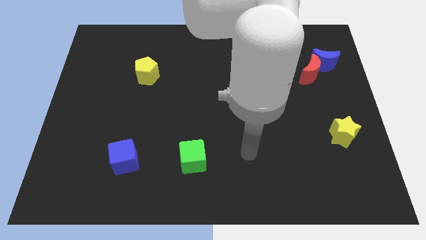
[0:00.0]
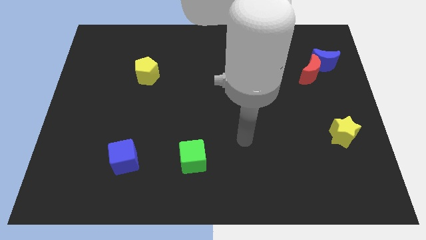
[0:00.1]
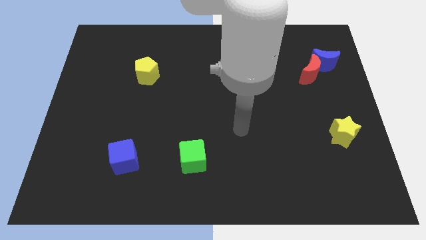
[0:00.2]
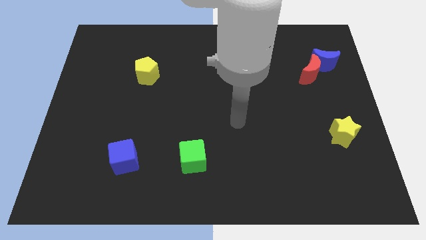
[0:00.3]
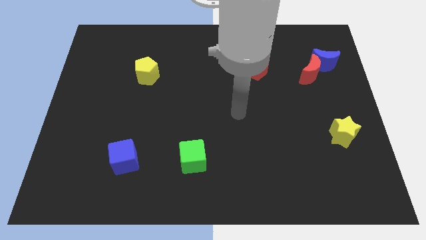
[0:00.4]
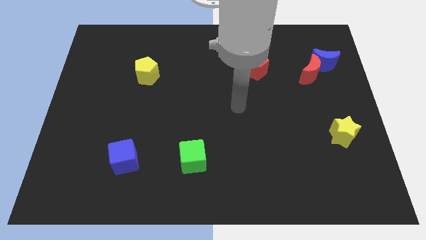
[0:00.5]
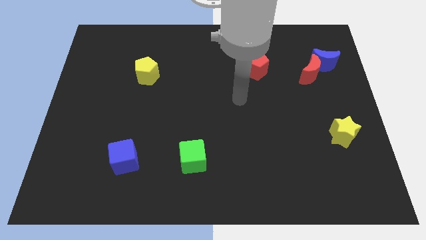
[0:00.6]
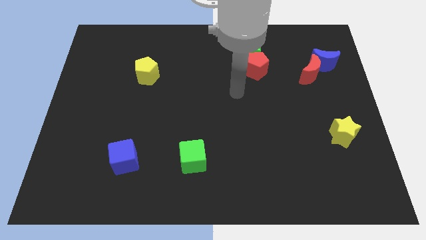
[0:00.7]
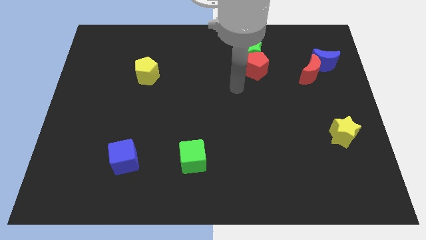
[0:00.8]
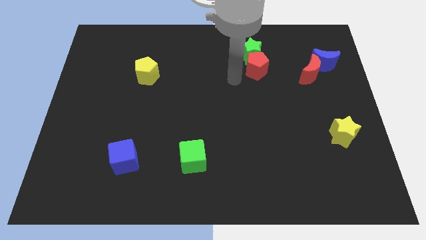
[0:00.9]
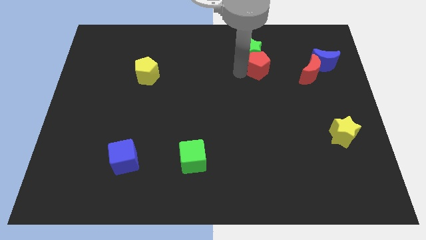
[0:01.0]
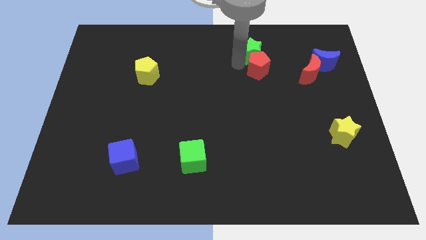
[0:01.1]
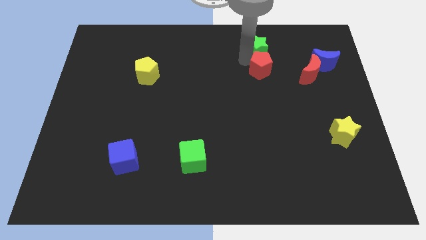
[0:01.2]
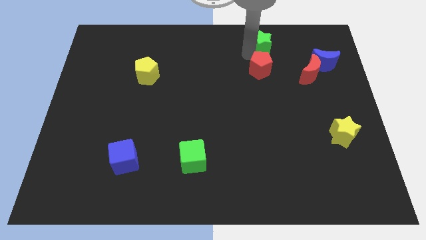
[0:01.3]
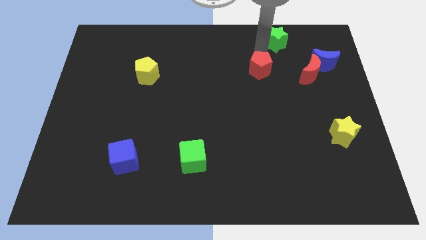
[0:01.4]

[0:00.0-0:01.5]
move the red pentagon away from the green star

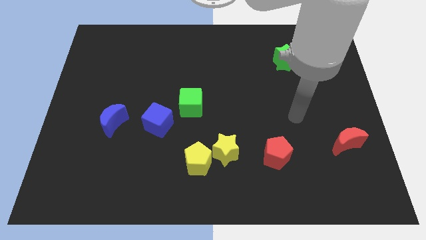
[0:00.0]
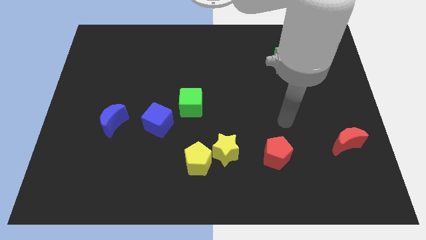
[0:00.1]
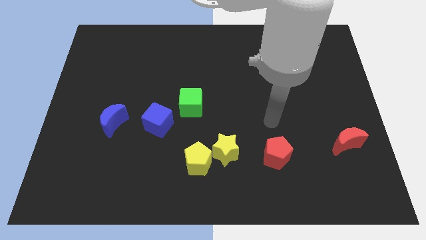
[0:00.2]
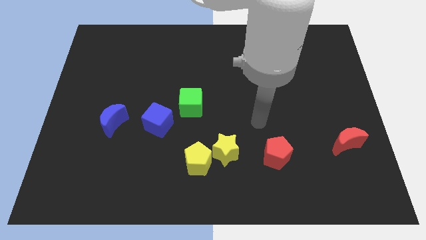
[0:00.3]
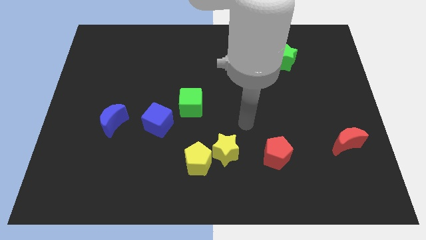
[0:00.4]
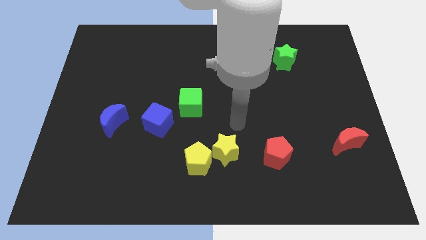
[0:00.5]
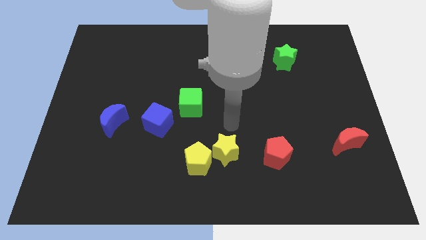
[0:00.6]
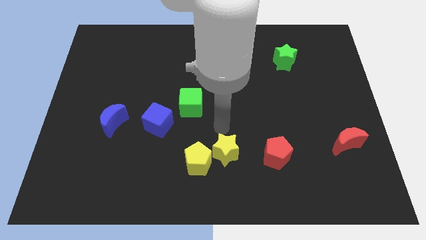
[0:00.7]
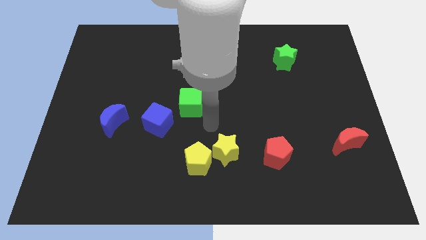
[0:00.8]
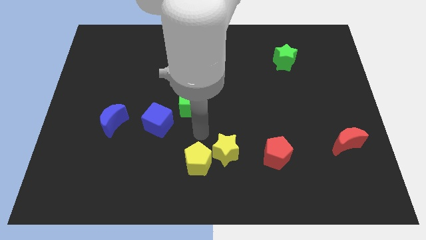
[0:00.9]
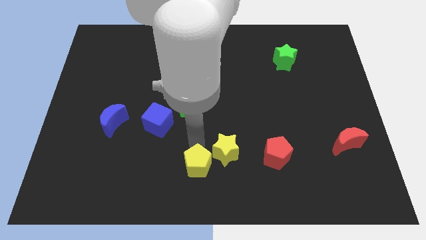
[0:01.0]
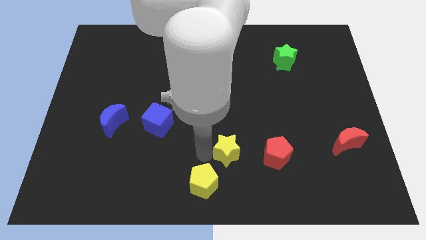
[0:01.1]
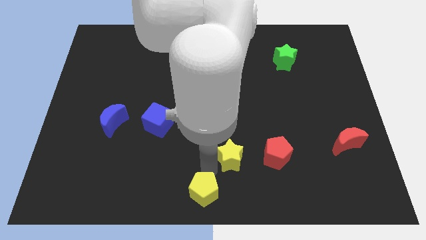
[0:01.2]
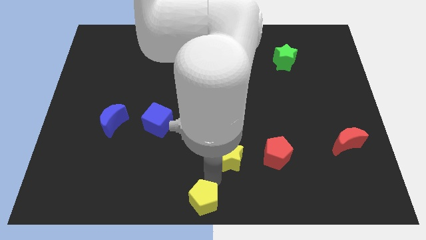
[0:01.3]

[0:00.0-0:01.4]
move the yellow star away from the yellow pentagon

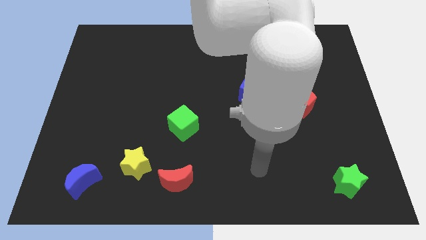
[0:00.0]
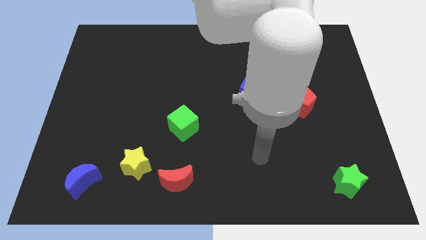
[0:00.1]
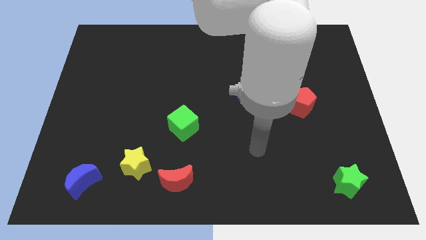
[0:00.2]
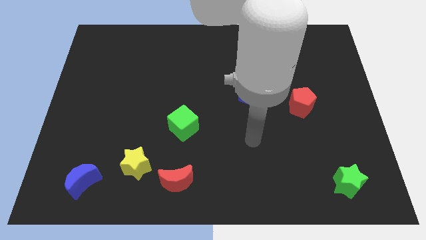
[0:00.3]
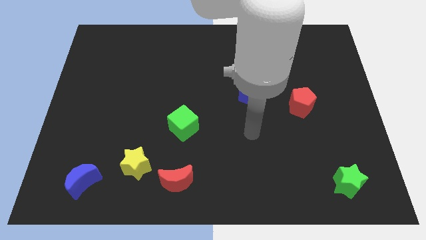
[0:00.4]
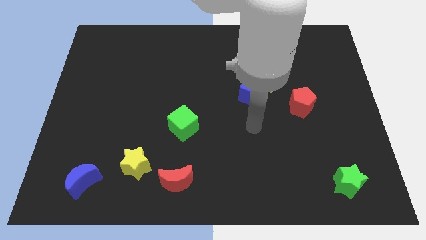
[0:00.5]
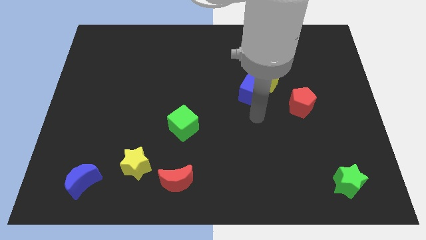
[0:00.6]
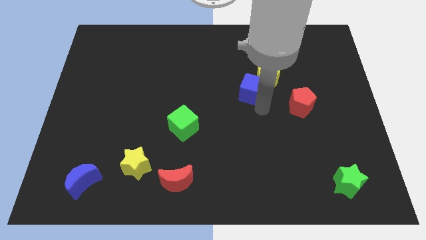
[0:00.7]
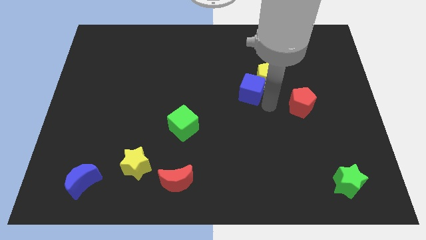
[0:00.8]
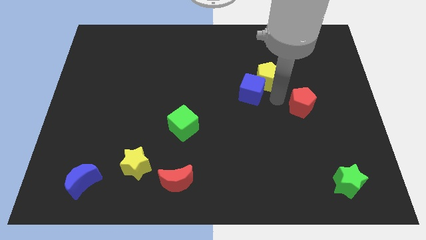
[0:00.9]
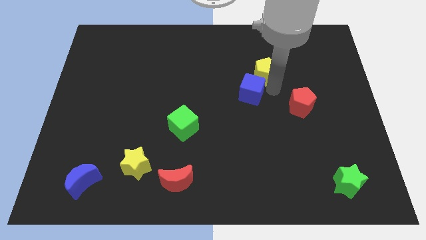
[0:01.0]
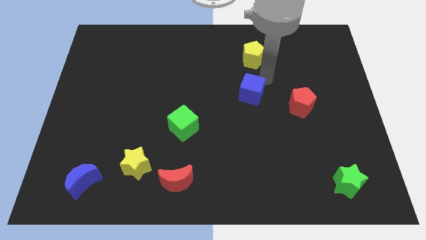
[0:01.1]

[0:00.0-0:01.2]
pull the blue cube apart from the yellow pentagon

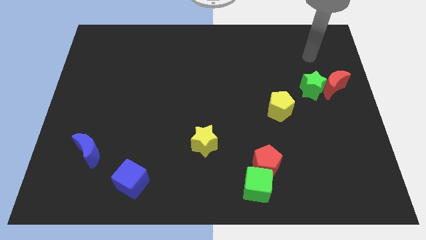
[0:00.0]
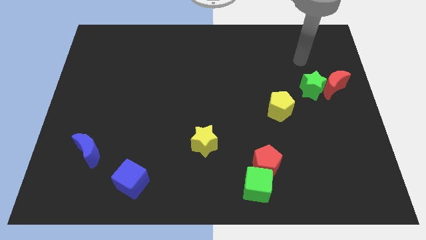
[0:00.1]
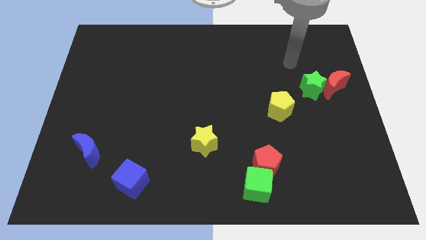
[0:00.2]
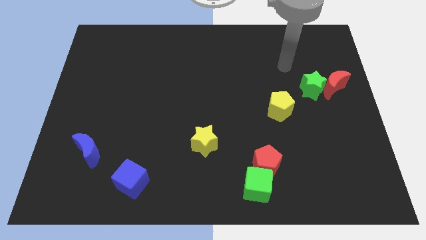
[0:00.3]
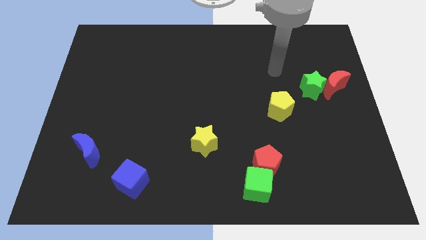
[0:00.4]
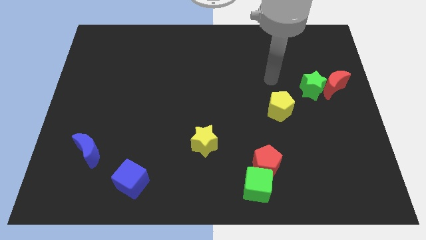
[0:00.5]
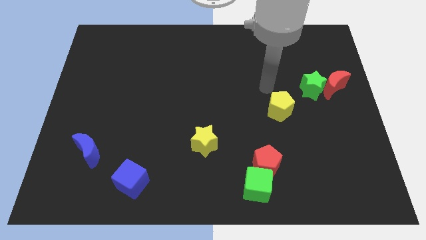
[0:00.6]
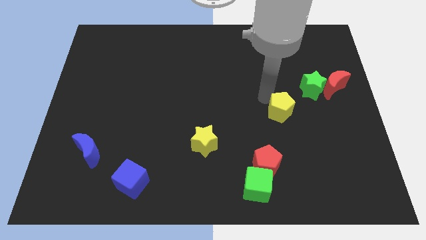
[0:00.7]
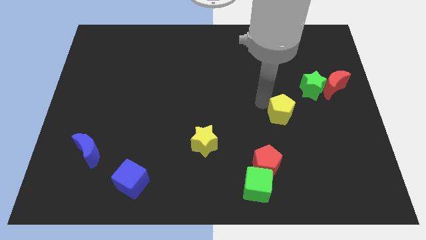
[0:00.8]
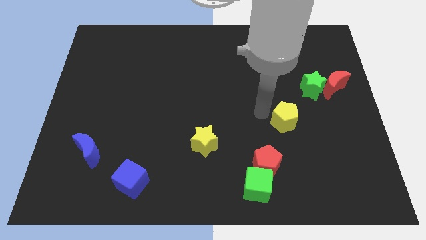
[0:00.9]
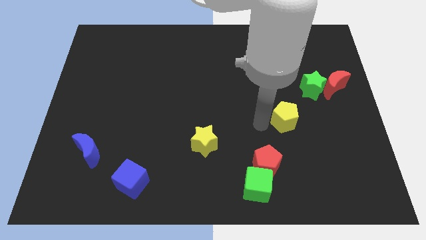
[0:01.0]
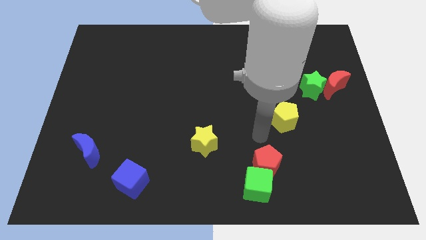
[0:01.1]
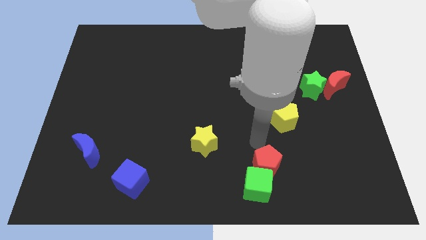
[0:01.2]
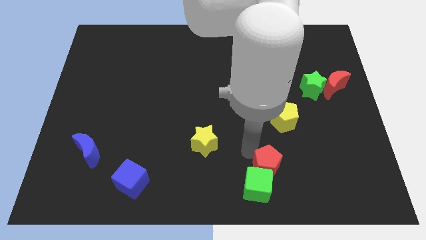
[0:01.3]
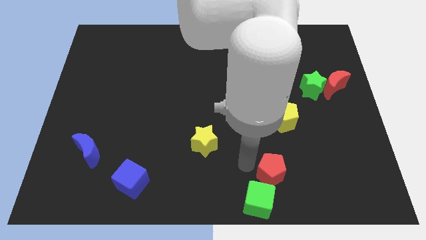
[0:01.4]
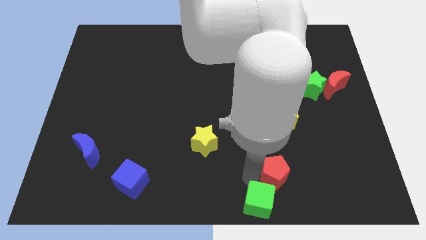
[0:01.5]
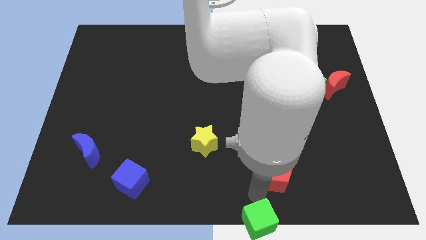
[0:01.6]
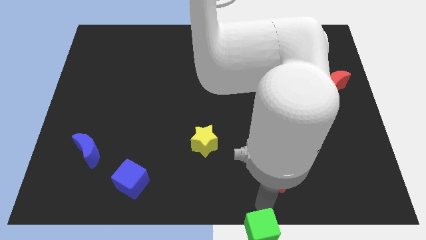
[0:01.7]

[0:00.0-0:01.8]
move the red pentagon away from the green cube

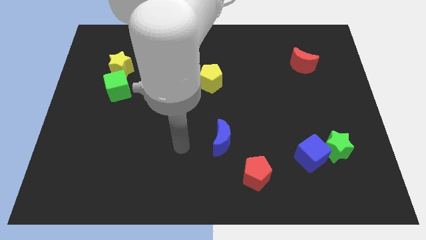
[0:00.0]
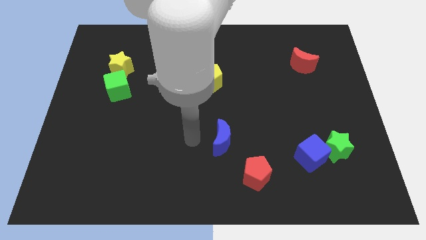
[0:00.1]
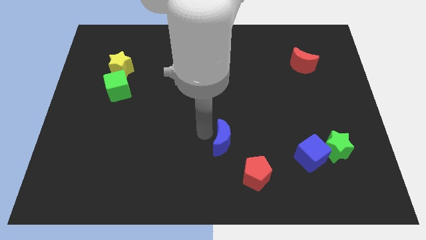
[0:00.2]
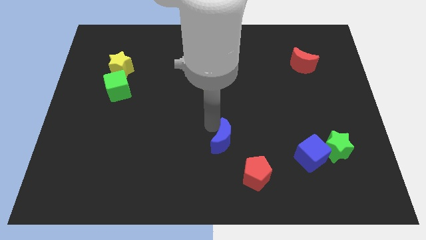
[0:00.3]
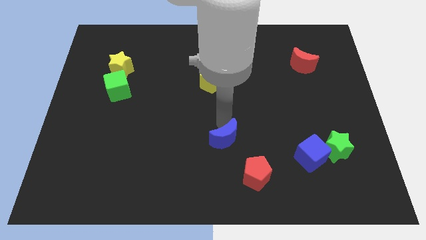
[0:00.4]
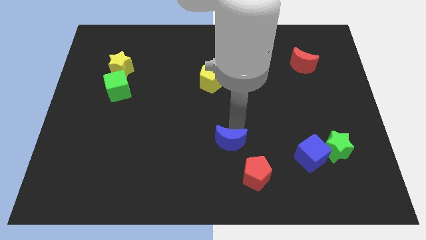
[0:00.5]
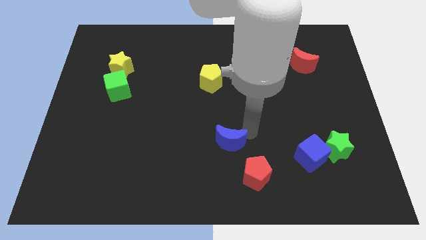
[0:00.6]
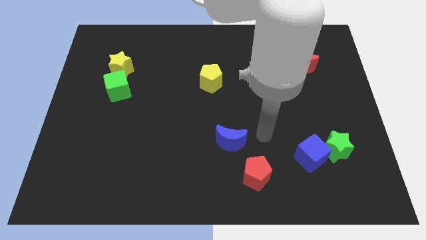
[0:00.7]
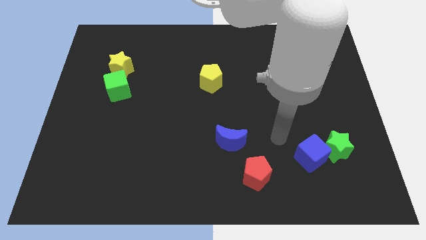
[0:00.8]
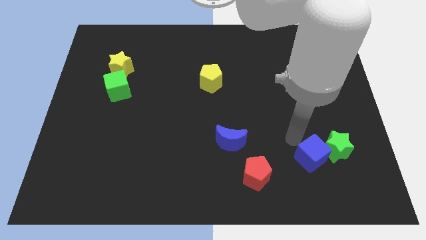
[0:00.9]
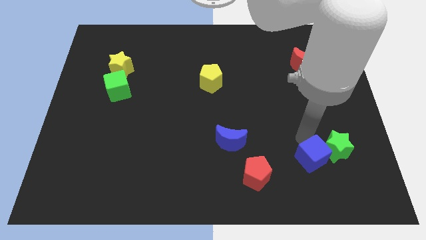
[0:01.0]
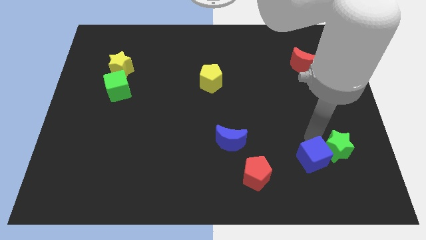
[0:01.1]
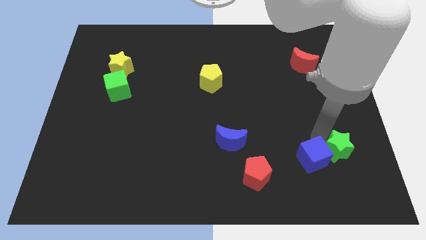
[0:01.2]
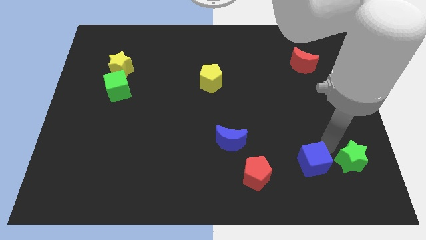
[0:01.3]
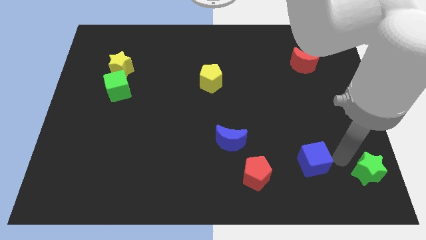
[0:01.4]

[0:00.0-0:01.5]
pull the blue cube apart from the green star

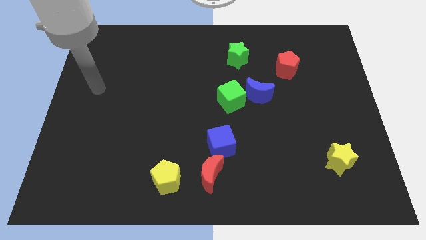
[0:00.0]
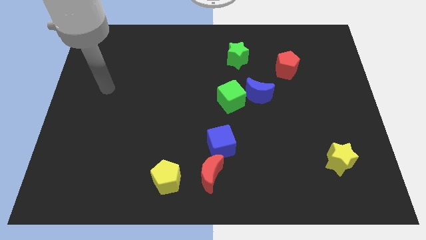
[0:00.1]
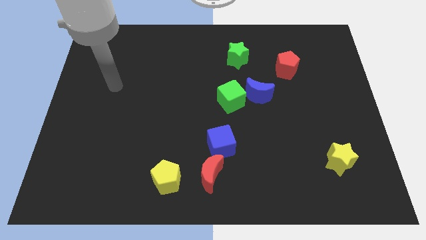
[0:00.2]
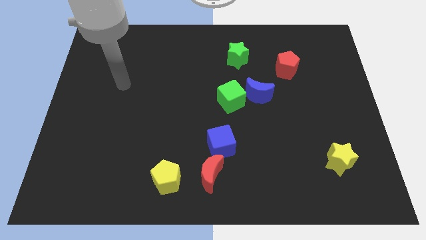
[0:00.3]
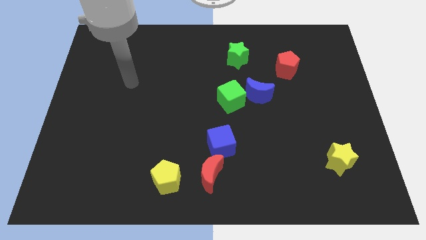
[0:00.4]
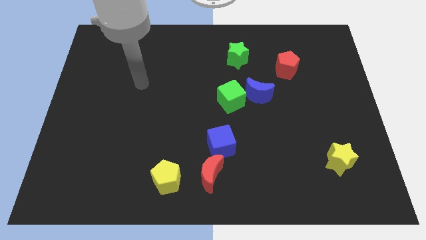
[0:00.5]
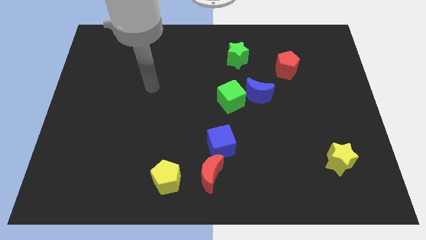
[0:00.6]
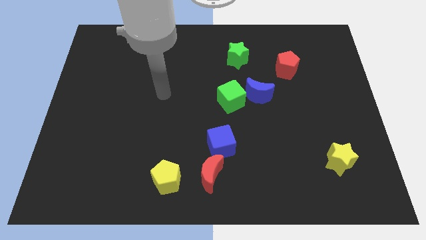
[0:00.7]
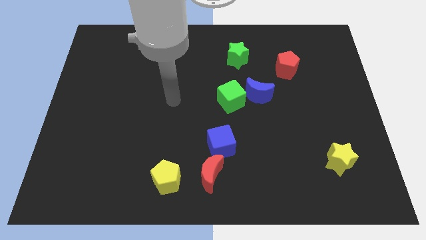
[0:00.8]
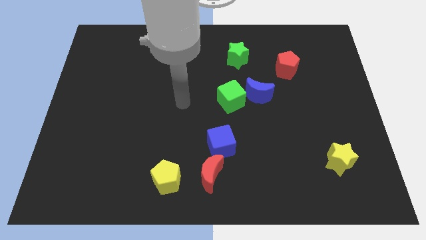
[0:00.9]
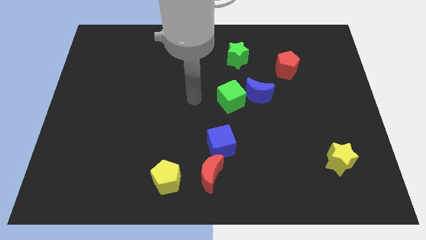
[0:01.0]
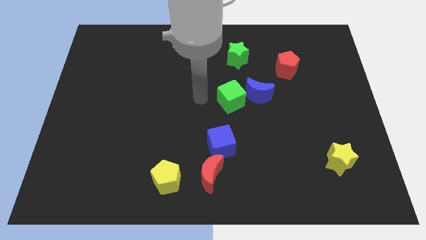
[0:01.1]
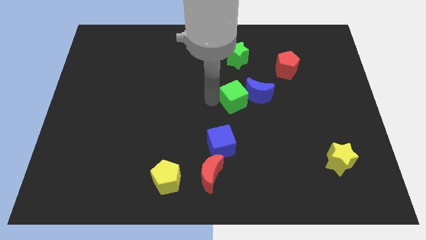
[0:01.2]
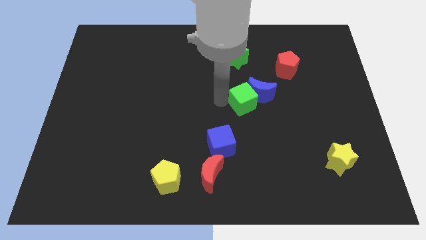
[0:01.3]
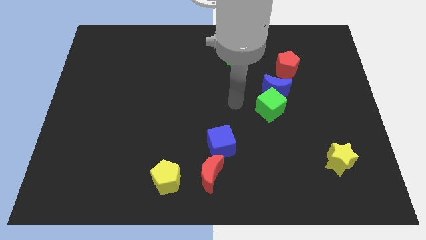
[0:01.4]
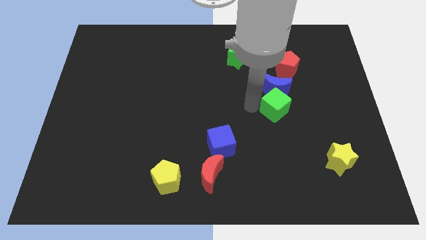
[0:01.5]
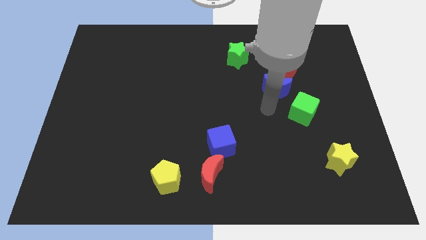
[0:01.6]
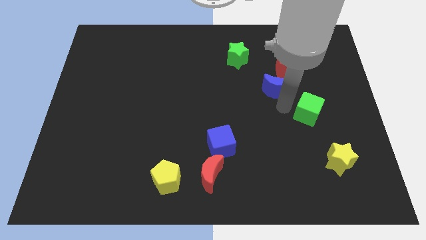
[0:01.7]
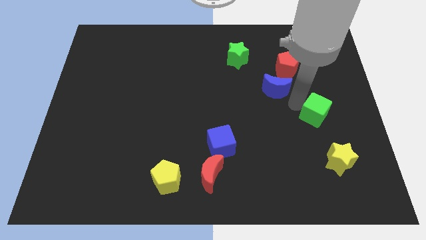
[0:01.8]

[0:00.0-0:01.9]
pull the blue moon apart from the green cube
